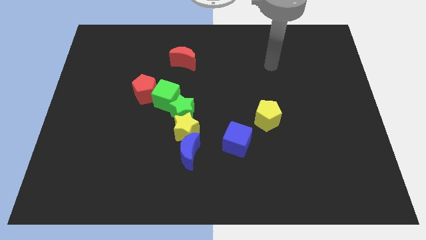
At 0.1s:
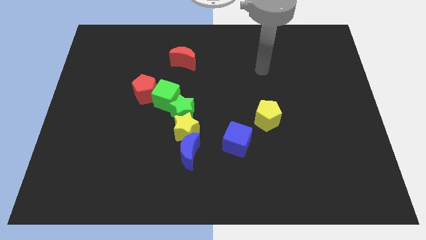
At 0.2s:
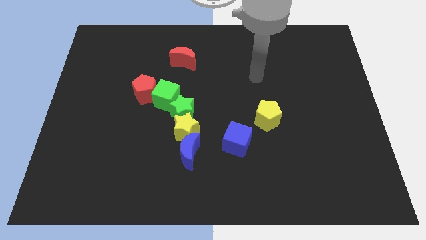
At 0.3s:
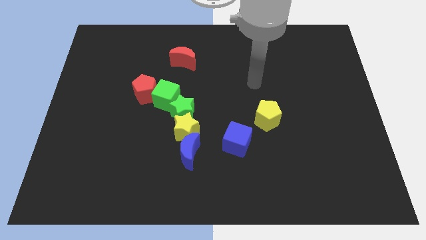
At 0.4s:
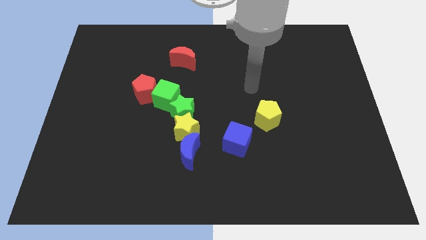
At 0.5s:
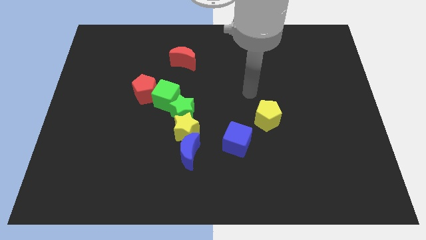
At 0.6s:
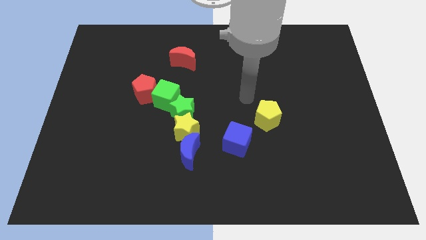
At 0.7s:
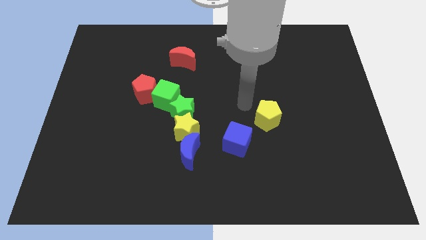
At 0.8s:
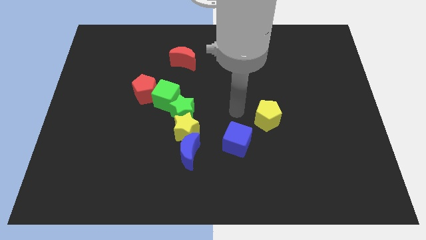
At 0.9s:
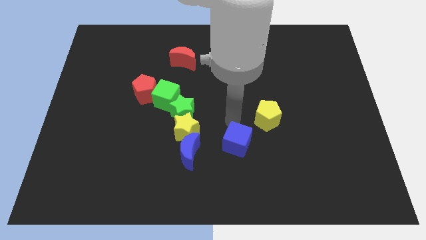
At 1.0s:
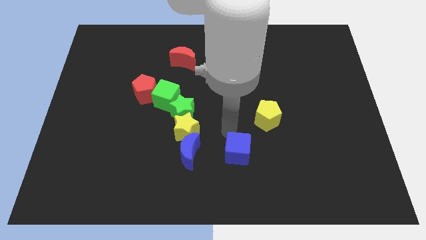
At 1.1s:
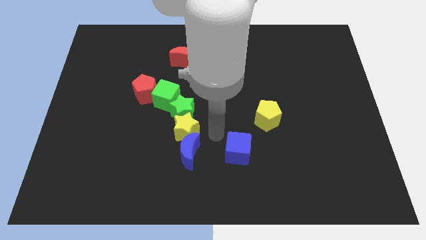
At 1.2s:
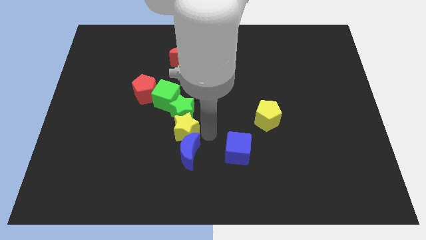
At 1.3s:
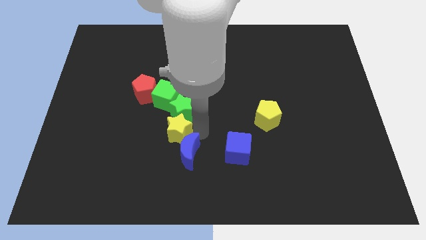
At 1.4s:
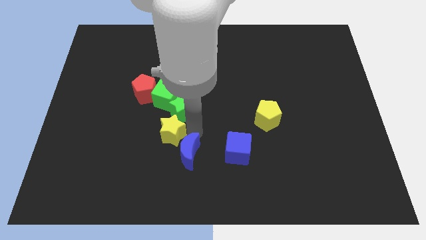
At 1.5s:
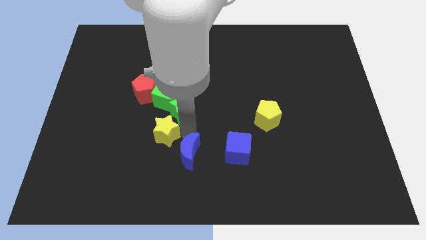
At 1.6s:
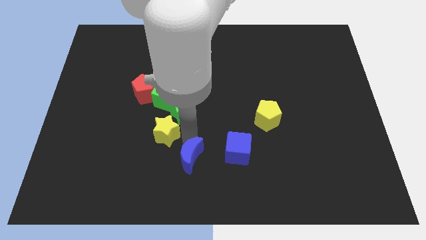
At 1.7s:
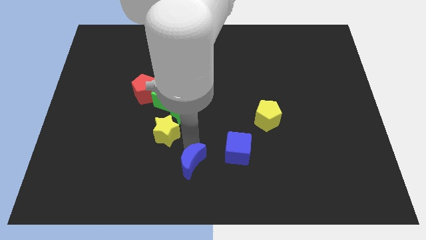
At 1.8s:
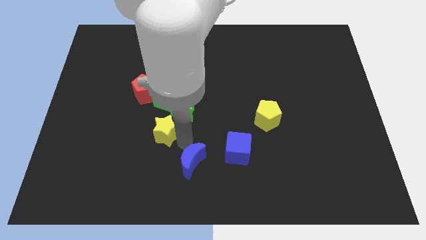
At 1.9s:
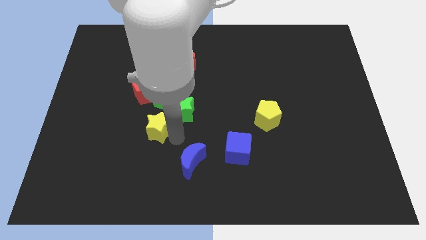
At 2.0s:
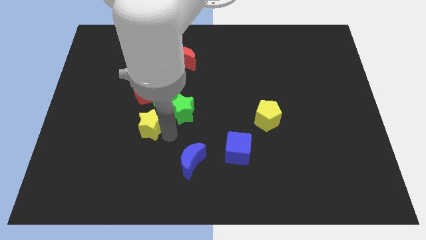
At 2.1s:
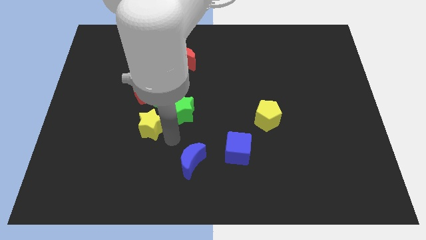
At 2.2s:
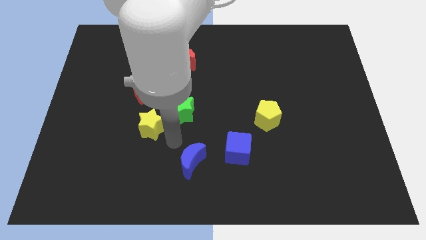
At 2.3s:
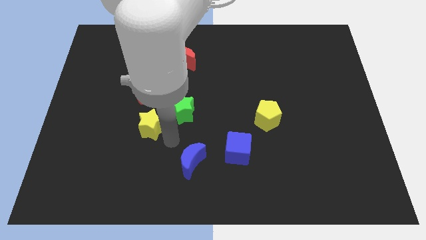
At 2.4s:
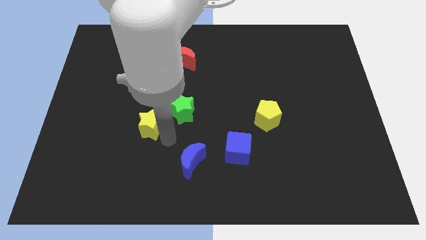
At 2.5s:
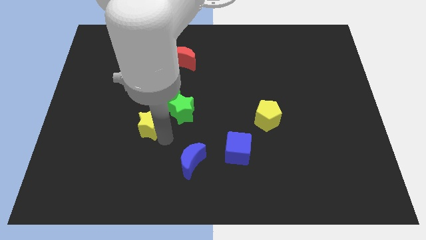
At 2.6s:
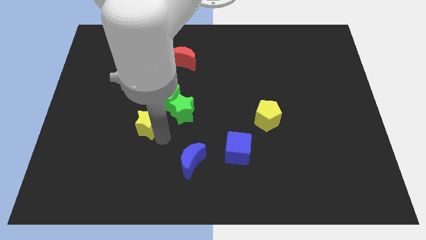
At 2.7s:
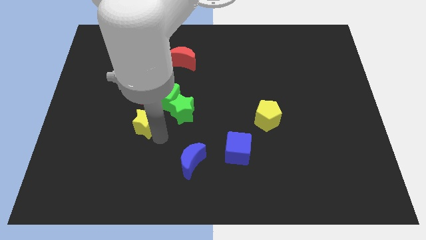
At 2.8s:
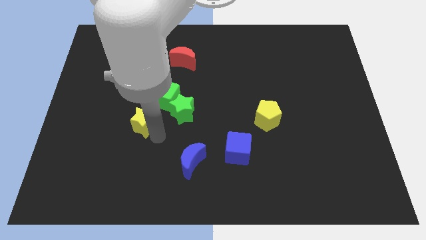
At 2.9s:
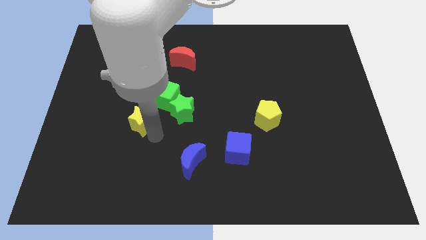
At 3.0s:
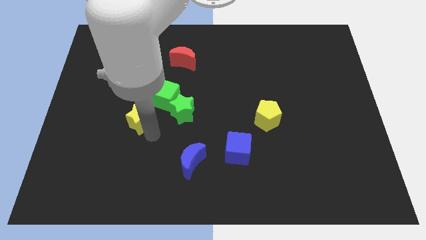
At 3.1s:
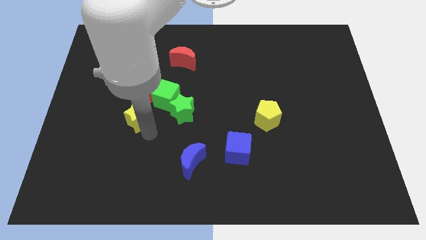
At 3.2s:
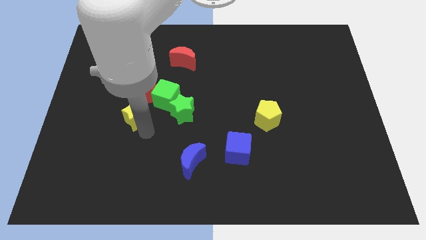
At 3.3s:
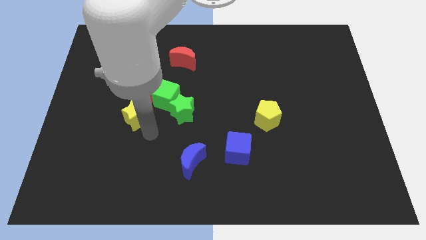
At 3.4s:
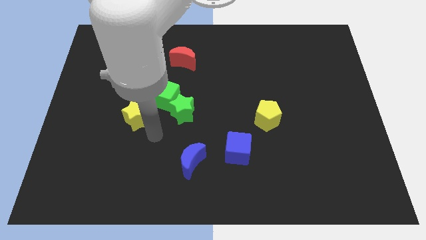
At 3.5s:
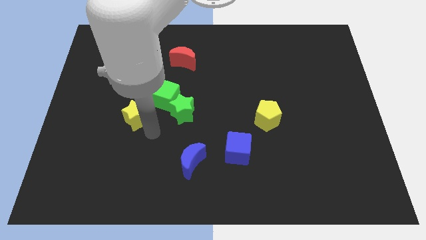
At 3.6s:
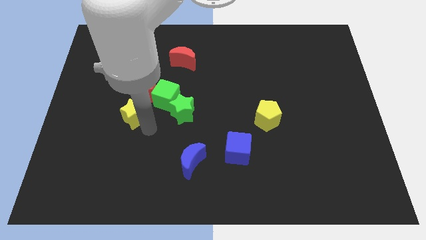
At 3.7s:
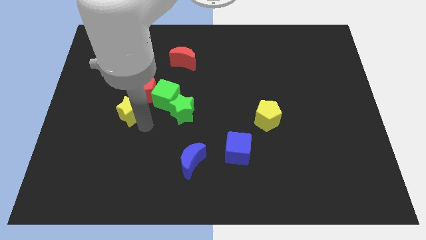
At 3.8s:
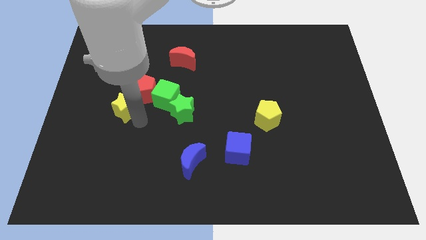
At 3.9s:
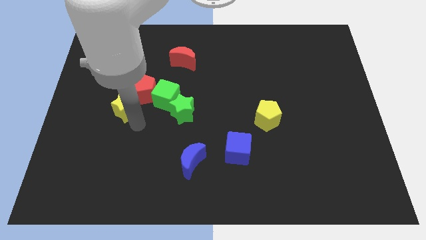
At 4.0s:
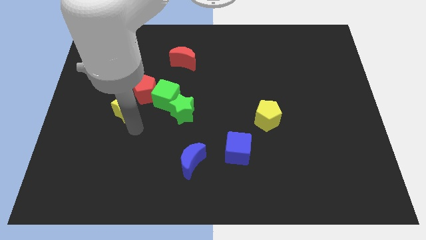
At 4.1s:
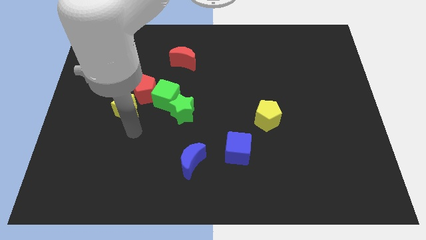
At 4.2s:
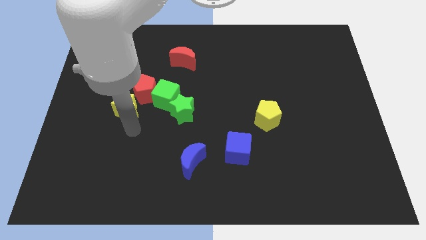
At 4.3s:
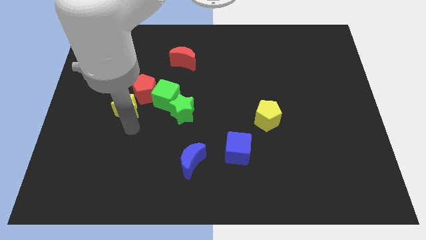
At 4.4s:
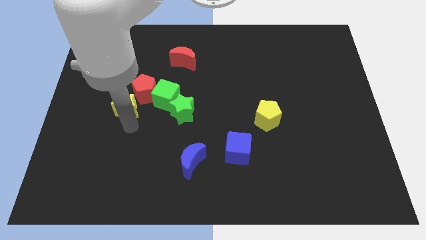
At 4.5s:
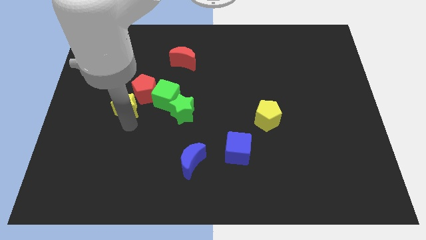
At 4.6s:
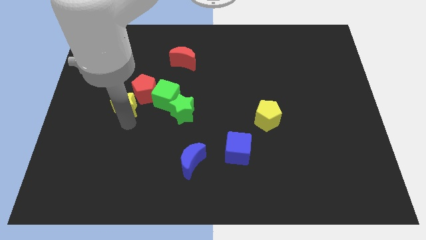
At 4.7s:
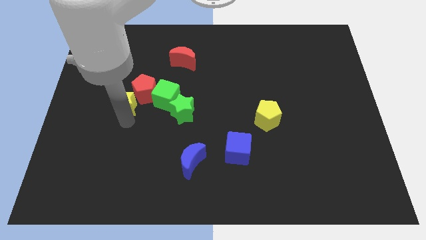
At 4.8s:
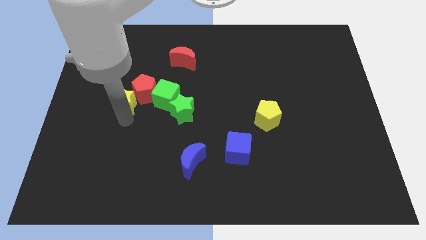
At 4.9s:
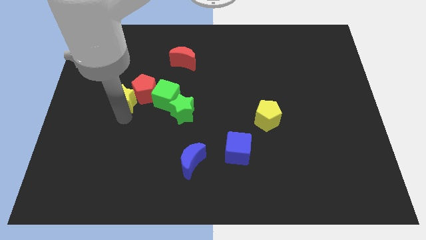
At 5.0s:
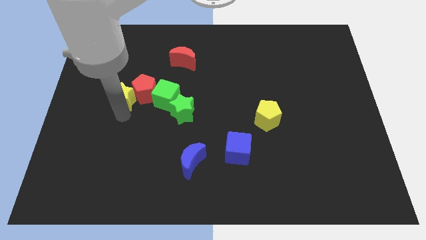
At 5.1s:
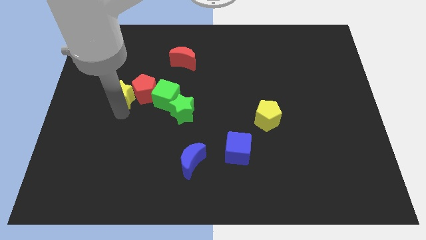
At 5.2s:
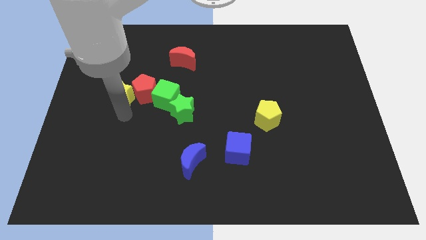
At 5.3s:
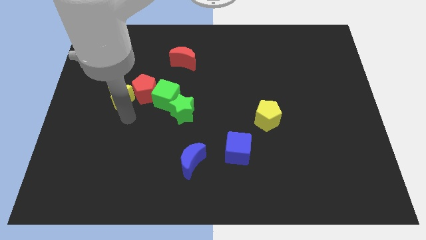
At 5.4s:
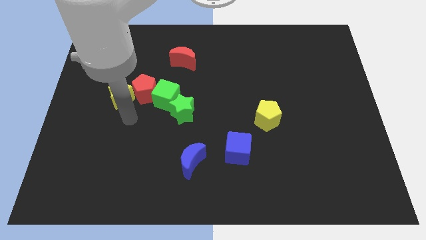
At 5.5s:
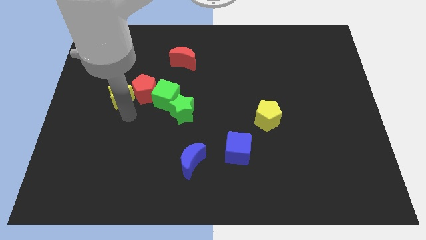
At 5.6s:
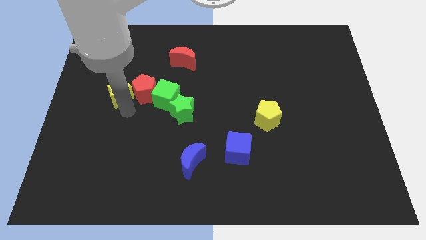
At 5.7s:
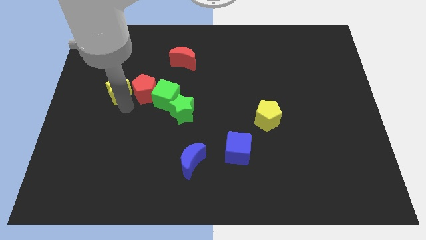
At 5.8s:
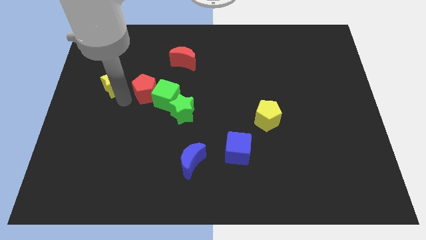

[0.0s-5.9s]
slide the yellow star up and to the left diagonally

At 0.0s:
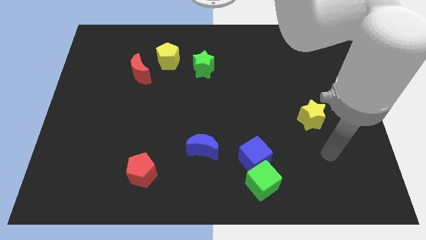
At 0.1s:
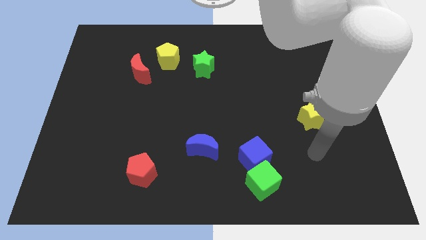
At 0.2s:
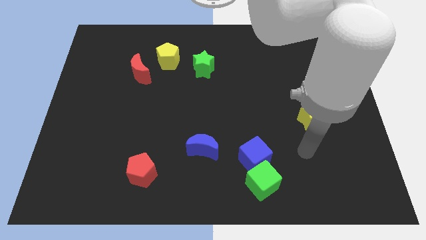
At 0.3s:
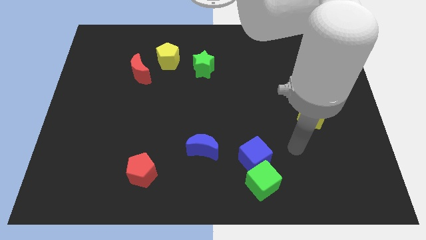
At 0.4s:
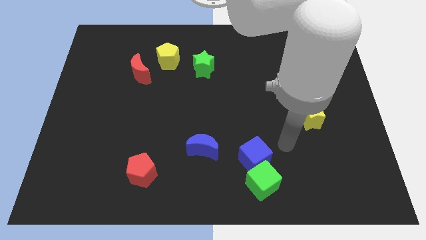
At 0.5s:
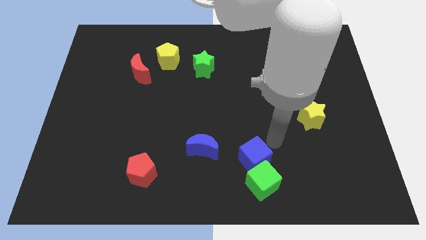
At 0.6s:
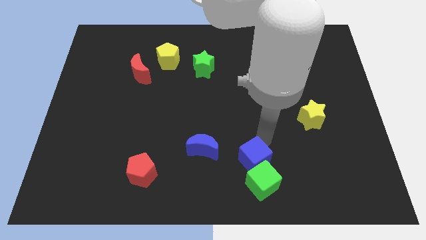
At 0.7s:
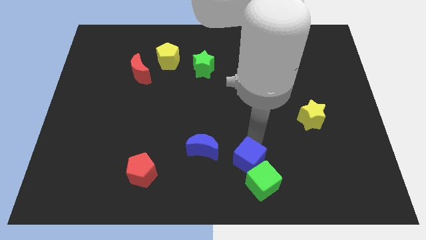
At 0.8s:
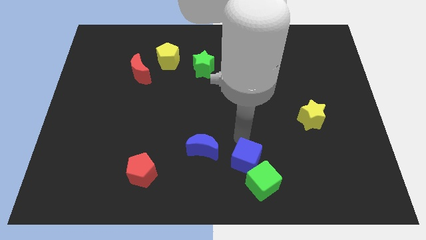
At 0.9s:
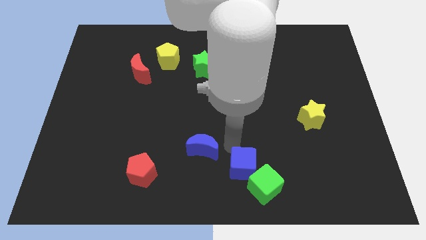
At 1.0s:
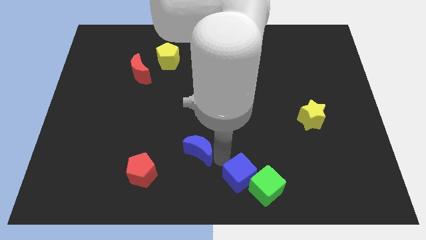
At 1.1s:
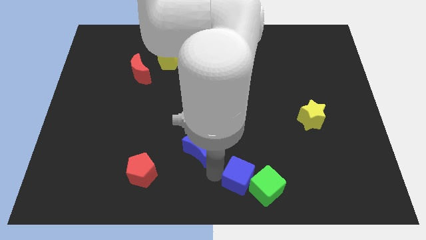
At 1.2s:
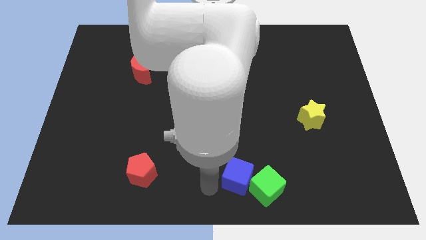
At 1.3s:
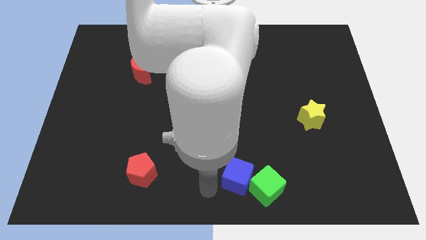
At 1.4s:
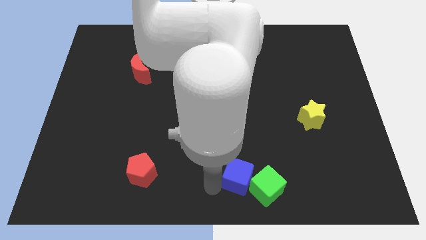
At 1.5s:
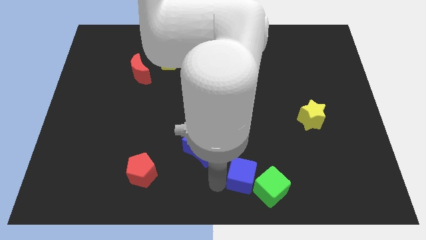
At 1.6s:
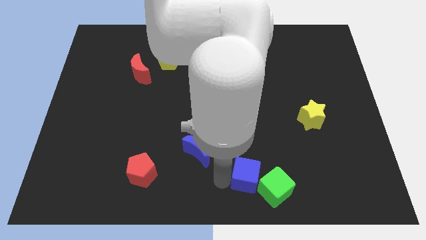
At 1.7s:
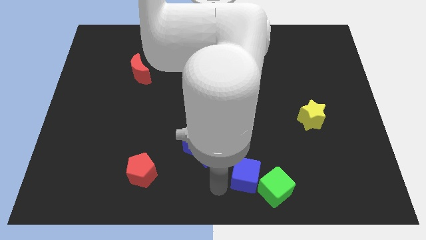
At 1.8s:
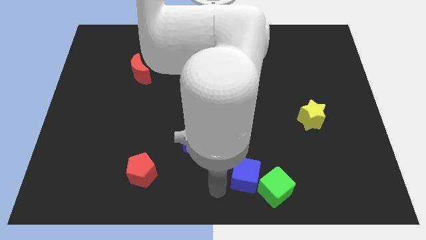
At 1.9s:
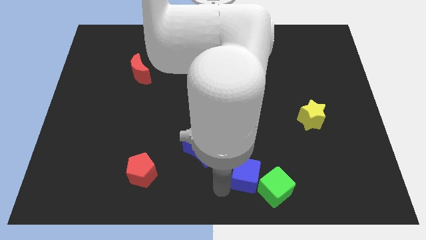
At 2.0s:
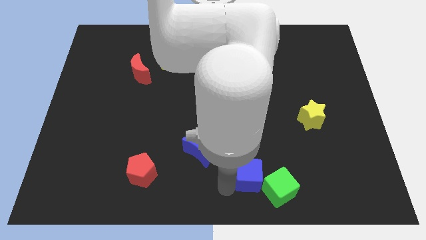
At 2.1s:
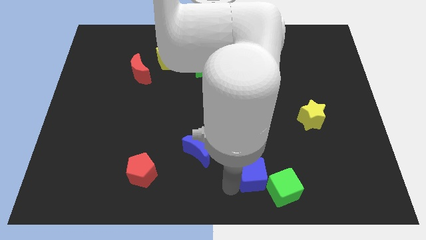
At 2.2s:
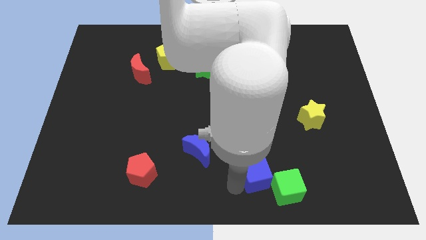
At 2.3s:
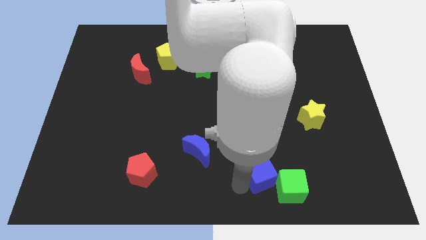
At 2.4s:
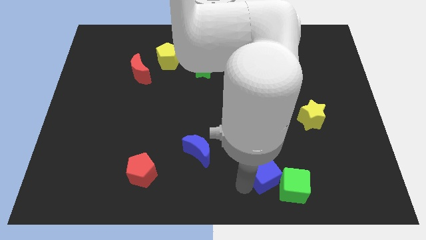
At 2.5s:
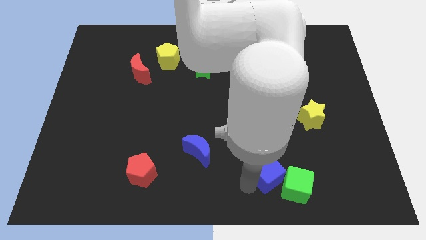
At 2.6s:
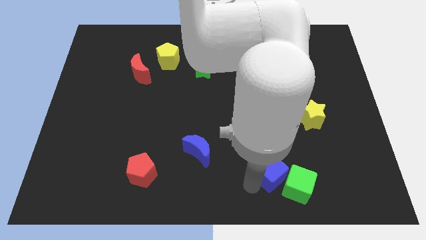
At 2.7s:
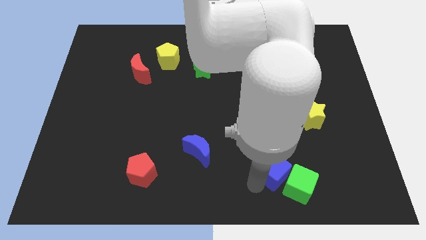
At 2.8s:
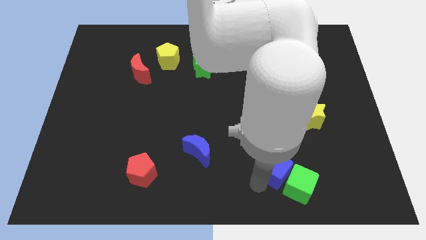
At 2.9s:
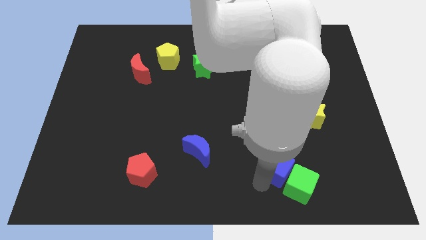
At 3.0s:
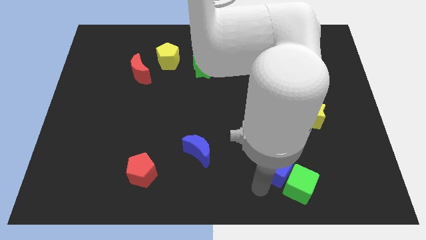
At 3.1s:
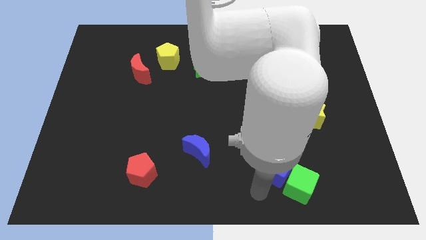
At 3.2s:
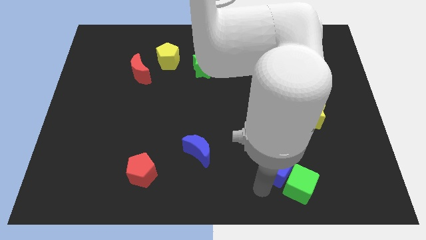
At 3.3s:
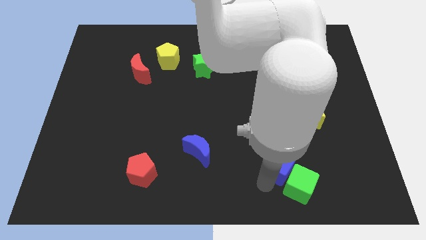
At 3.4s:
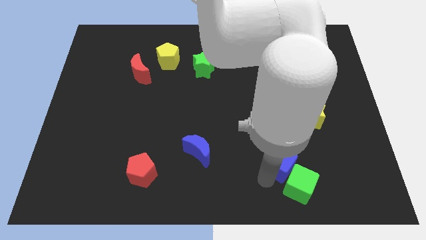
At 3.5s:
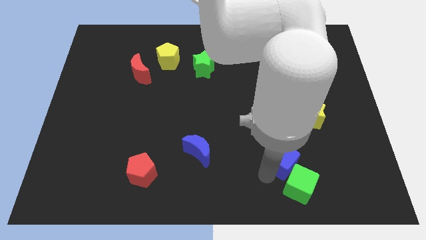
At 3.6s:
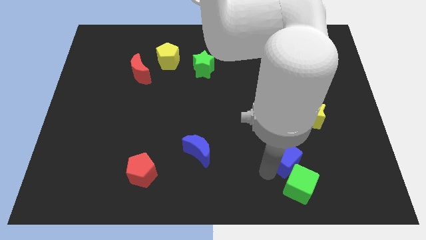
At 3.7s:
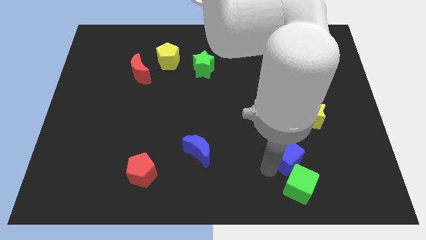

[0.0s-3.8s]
slightly move the blue cube to the right
